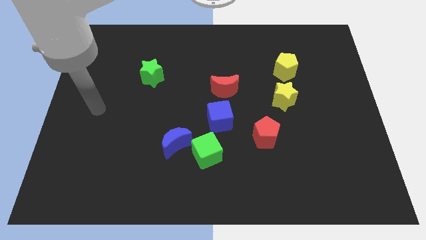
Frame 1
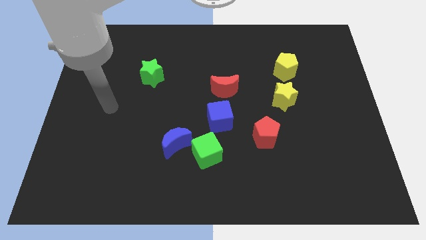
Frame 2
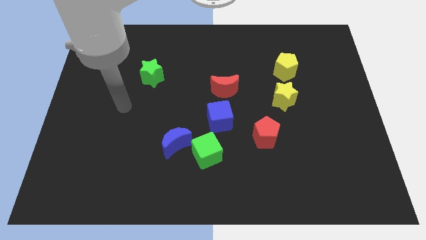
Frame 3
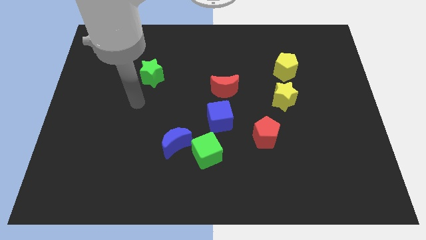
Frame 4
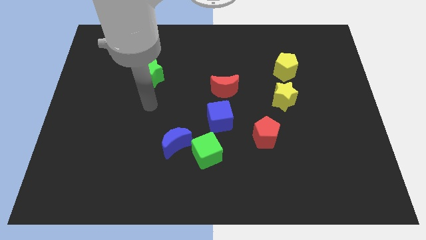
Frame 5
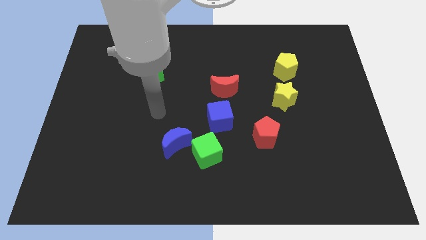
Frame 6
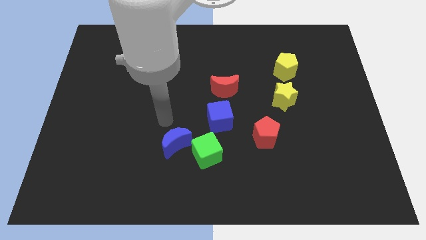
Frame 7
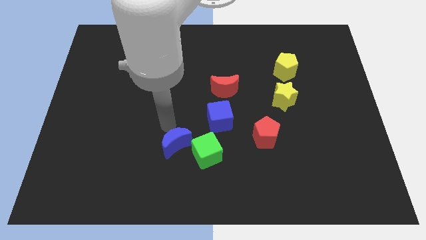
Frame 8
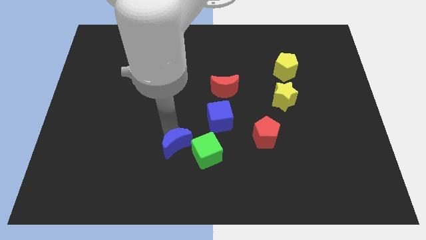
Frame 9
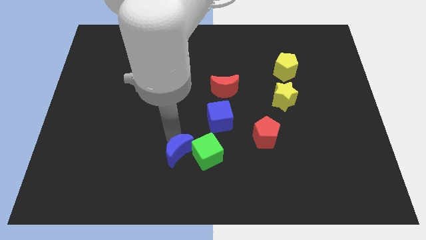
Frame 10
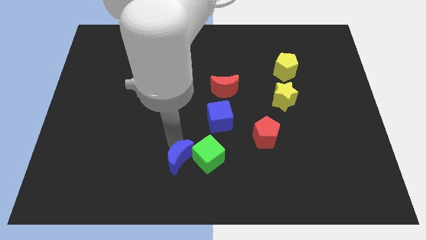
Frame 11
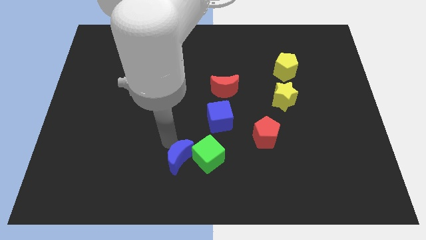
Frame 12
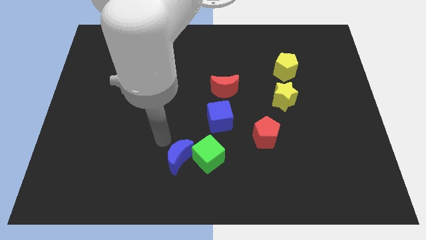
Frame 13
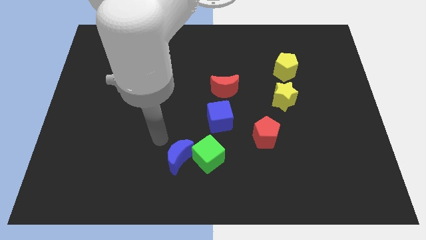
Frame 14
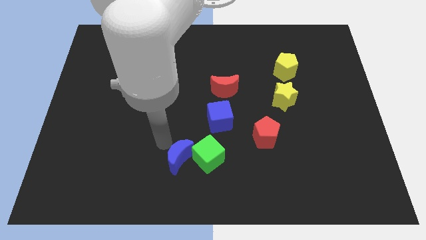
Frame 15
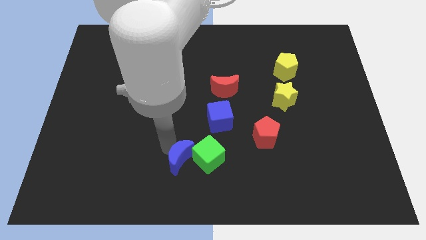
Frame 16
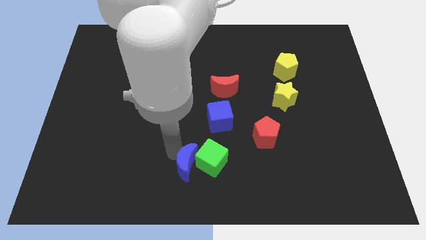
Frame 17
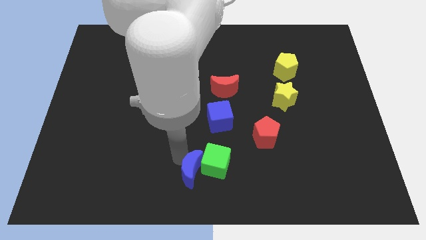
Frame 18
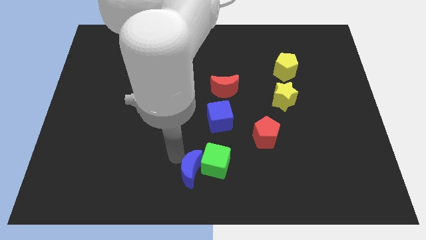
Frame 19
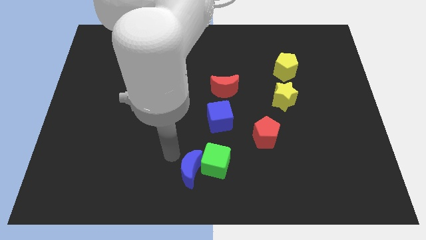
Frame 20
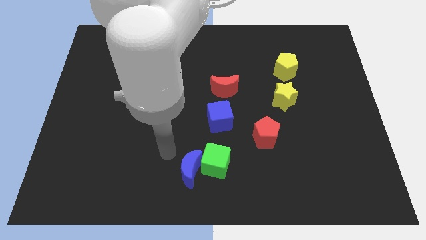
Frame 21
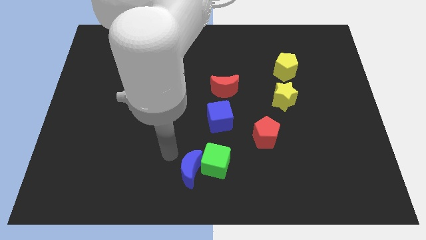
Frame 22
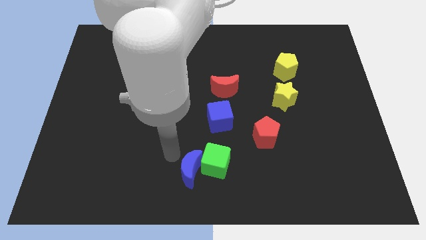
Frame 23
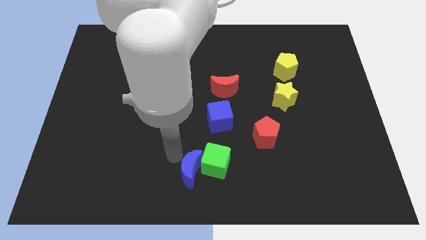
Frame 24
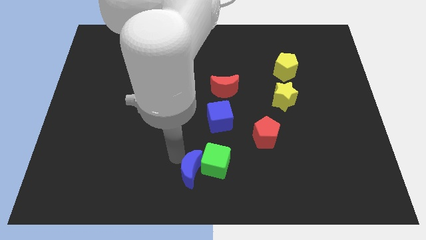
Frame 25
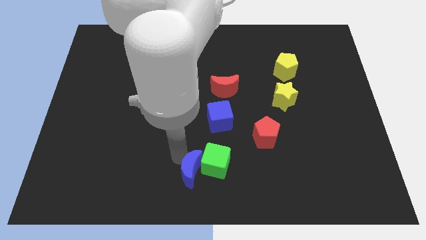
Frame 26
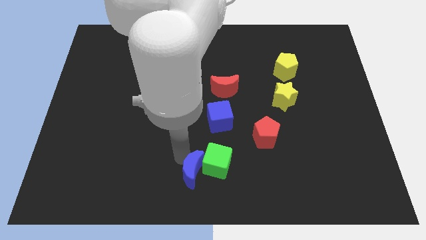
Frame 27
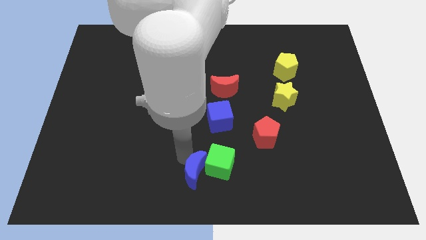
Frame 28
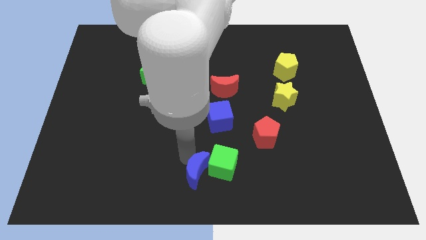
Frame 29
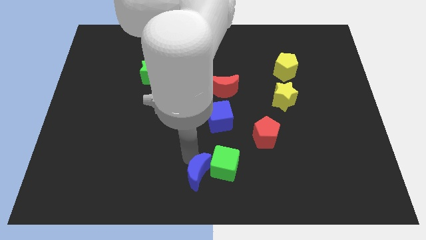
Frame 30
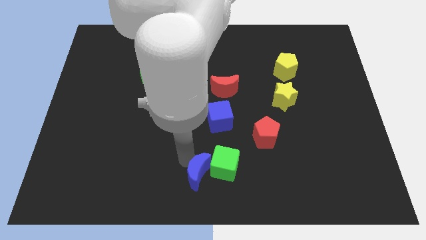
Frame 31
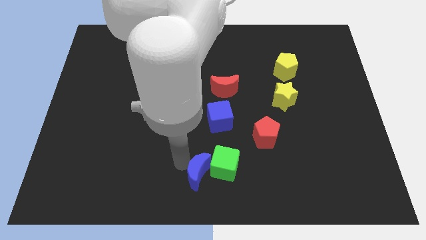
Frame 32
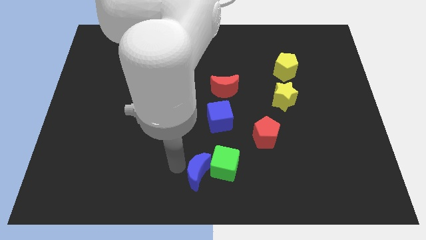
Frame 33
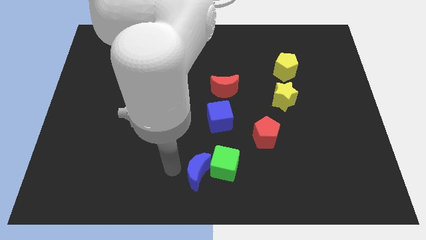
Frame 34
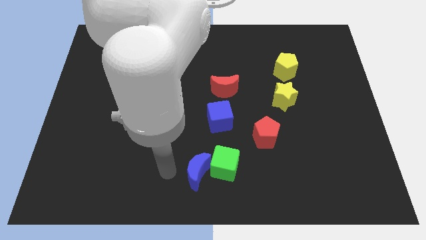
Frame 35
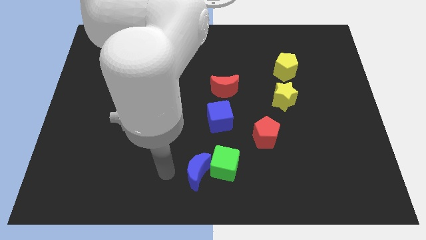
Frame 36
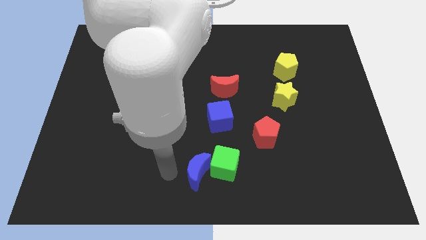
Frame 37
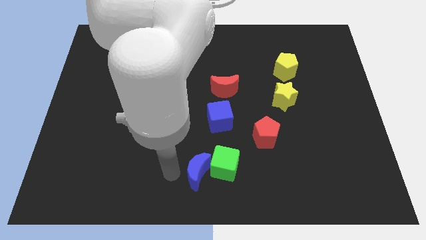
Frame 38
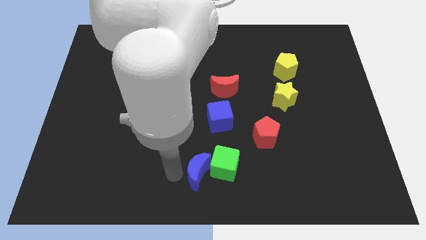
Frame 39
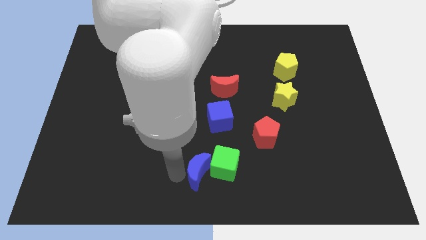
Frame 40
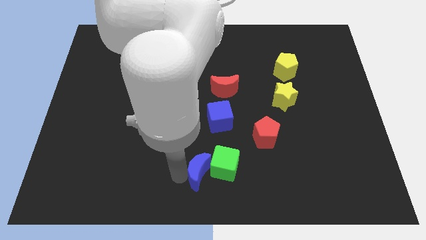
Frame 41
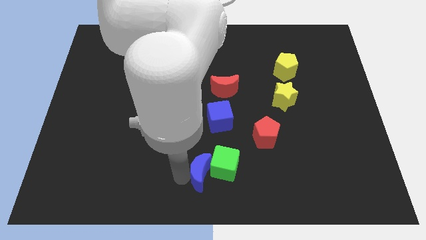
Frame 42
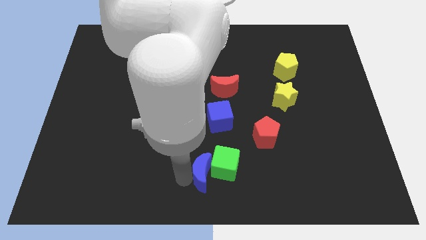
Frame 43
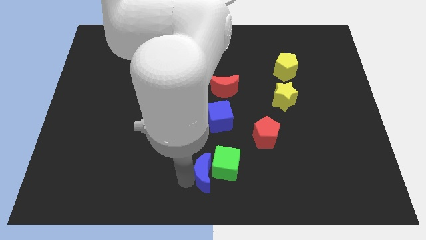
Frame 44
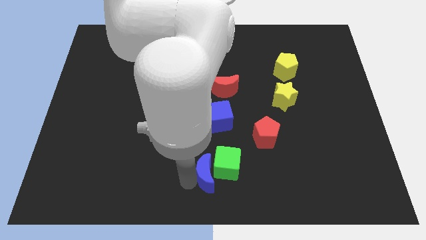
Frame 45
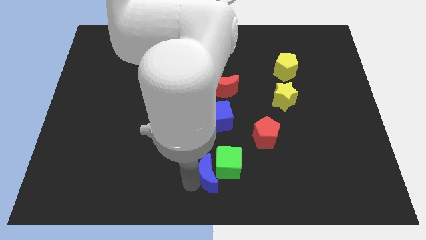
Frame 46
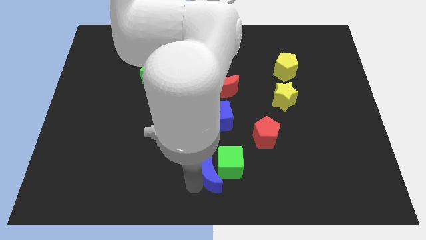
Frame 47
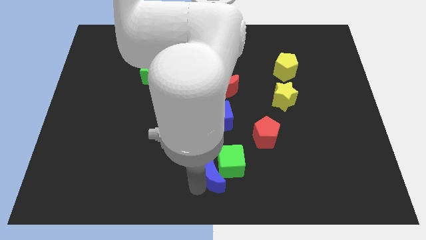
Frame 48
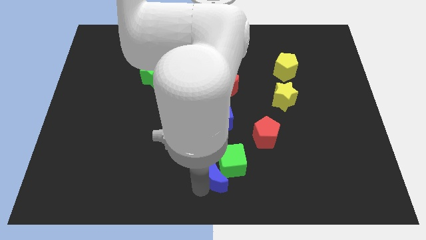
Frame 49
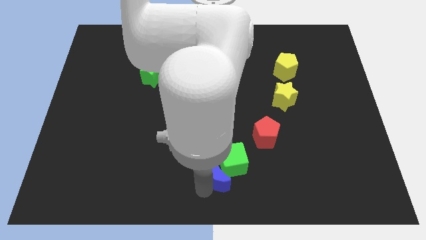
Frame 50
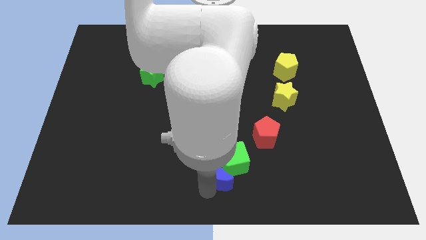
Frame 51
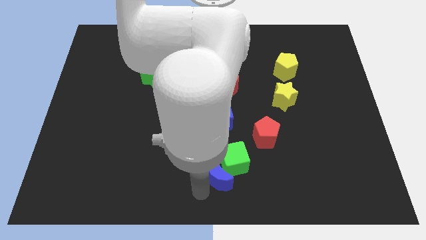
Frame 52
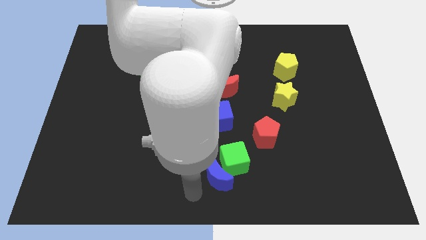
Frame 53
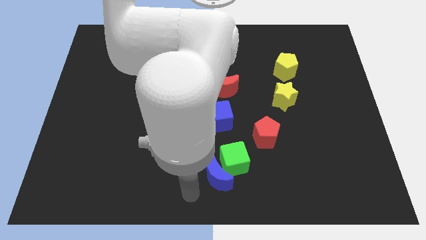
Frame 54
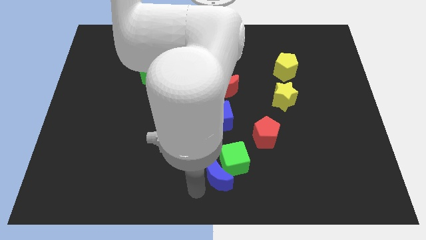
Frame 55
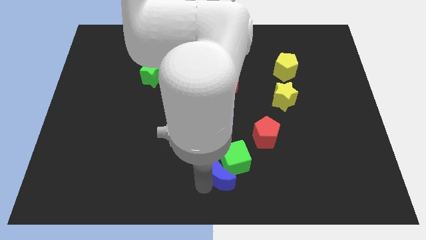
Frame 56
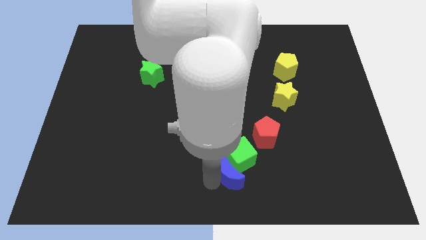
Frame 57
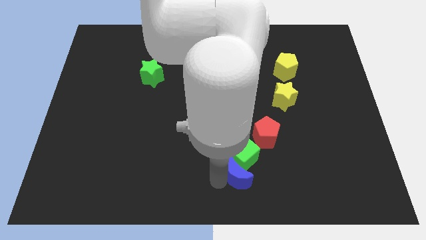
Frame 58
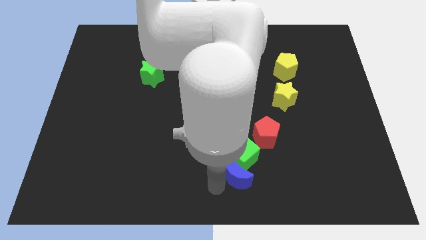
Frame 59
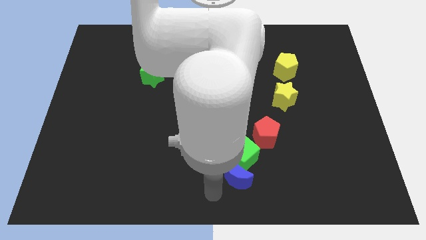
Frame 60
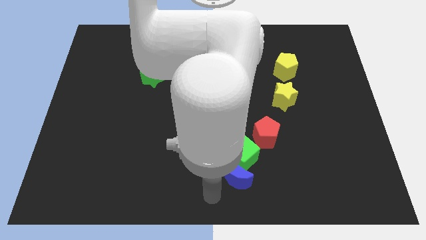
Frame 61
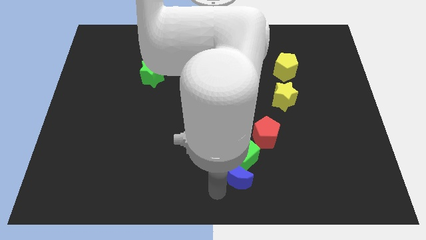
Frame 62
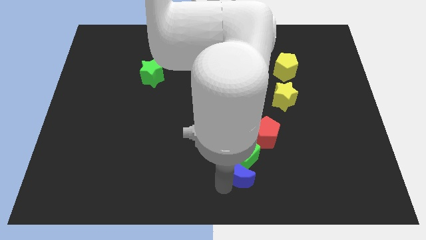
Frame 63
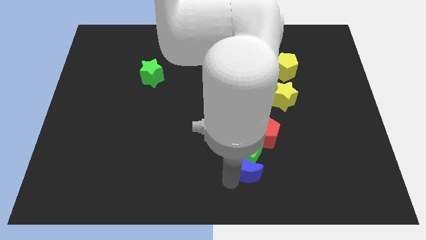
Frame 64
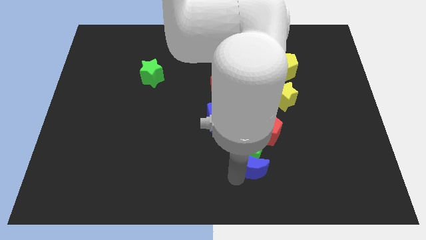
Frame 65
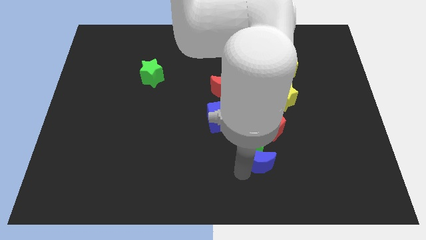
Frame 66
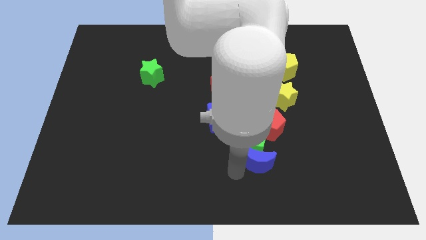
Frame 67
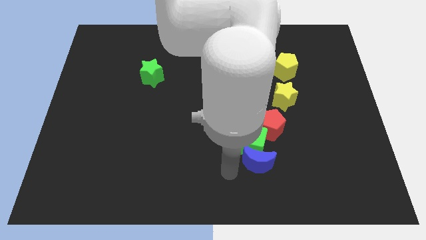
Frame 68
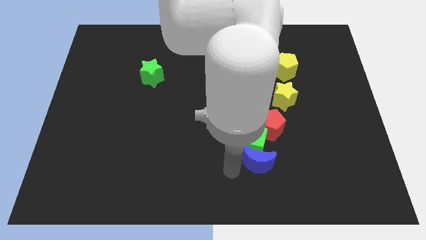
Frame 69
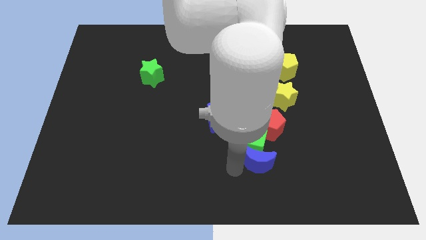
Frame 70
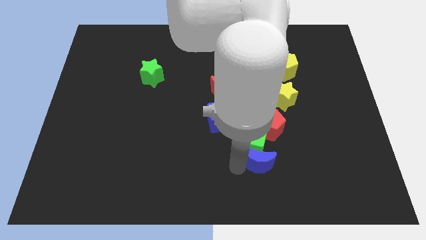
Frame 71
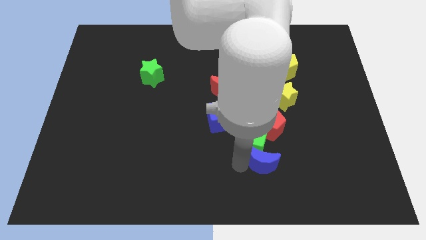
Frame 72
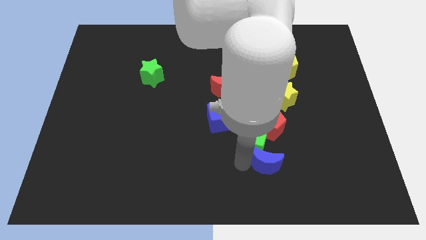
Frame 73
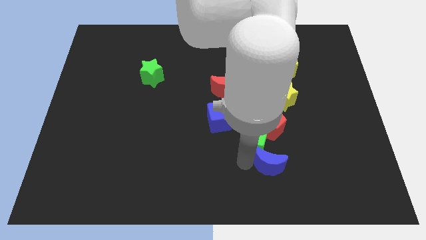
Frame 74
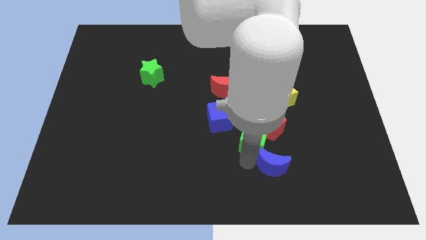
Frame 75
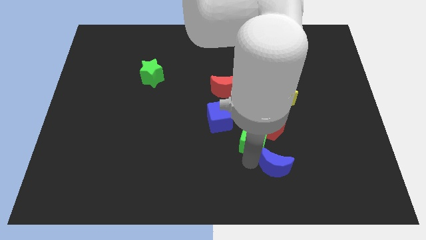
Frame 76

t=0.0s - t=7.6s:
push the blue moon right

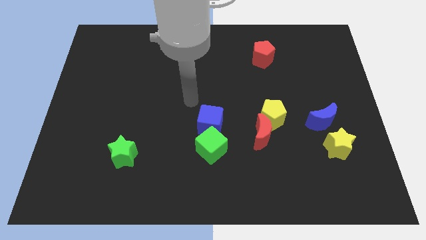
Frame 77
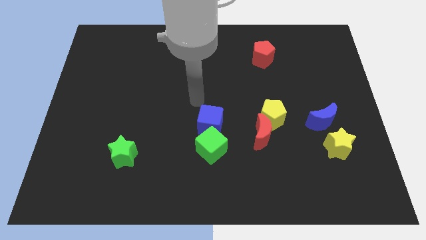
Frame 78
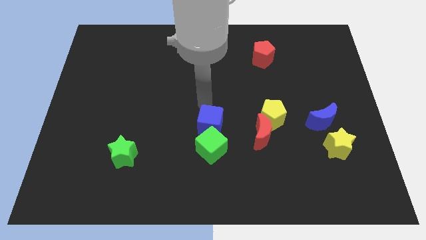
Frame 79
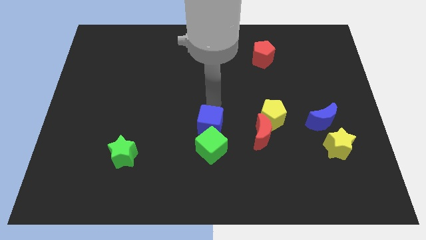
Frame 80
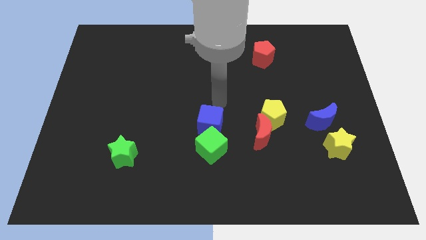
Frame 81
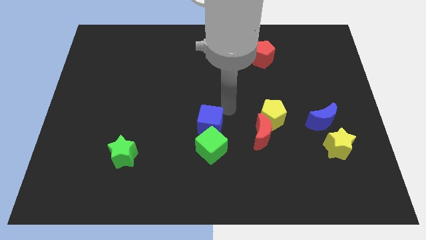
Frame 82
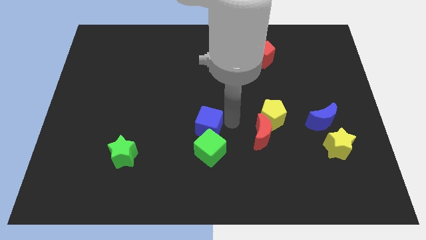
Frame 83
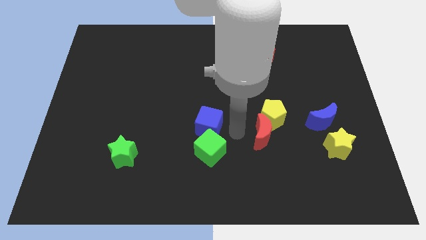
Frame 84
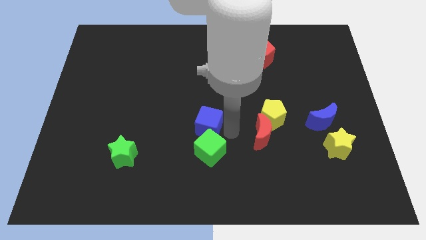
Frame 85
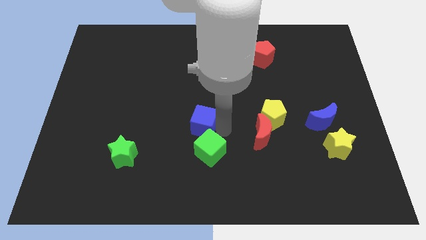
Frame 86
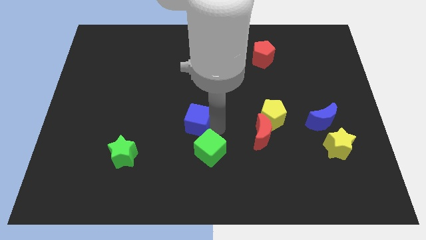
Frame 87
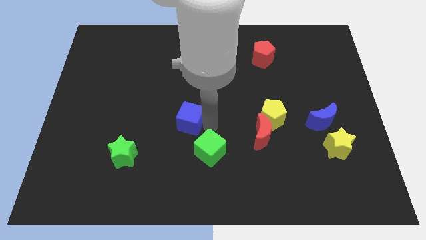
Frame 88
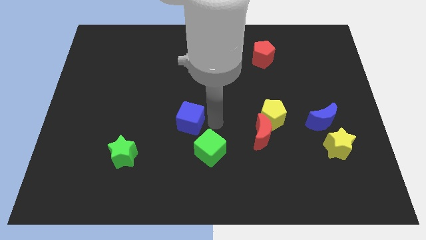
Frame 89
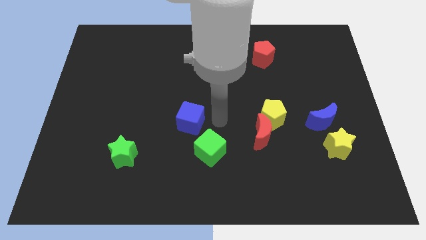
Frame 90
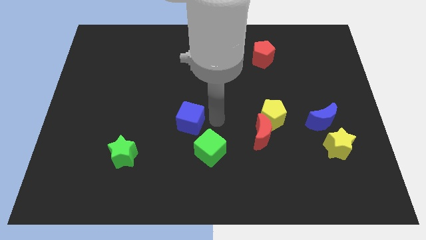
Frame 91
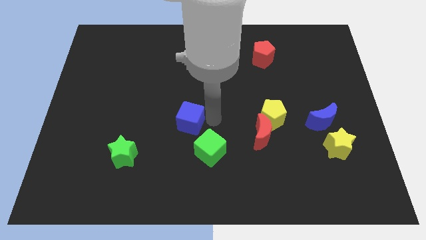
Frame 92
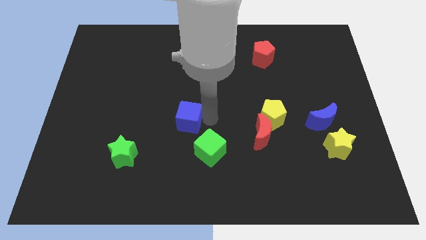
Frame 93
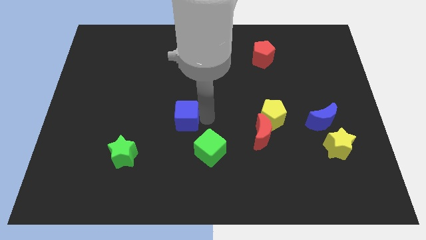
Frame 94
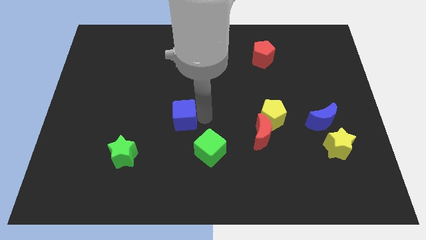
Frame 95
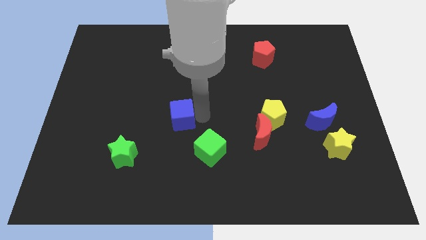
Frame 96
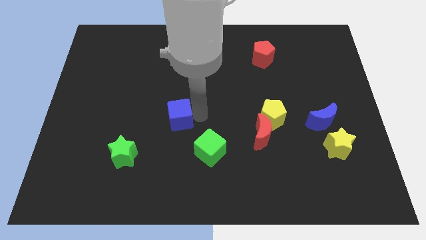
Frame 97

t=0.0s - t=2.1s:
move the blue cube to the left a little bit
